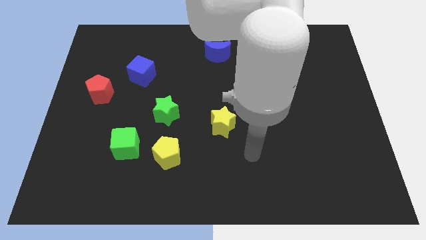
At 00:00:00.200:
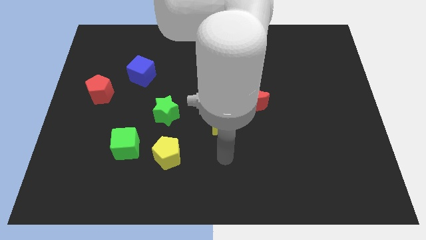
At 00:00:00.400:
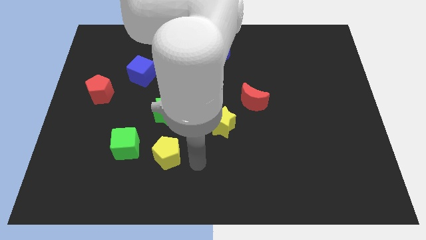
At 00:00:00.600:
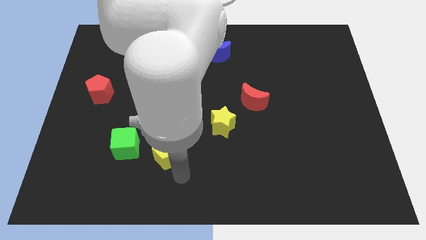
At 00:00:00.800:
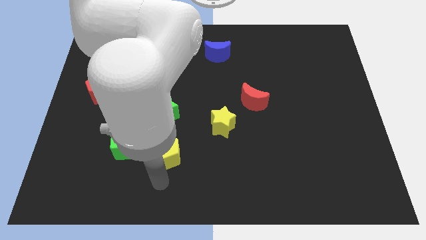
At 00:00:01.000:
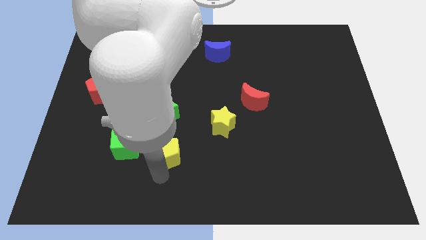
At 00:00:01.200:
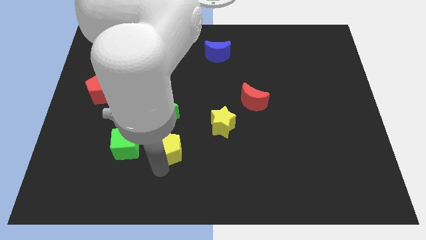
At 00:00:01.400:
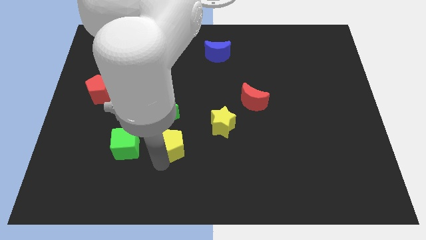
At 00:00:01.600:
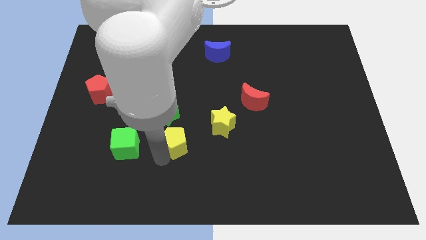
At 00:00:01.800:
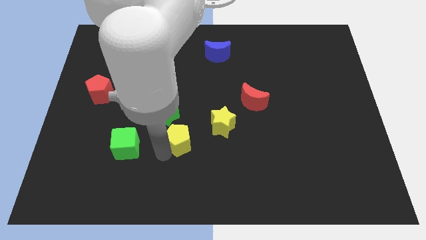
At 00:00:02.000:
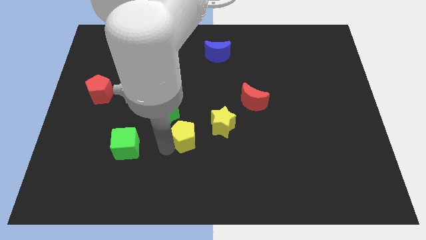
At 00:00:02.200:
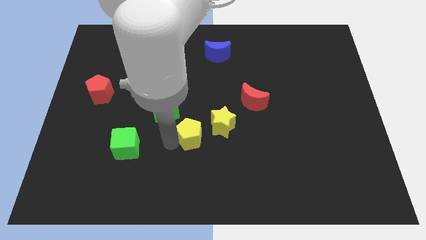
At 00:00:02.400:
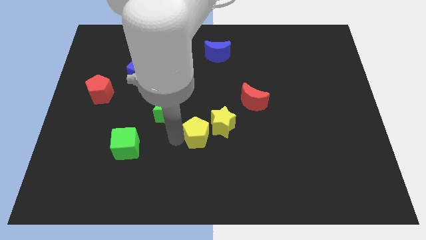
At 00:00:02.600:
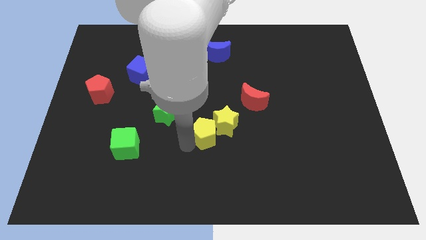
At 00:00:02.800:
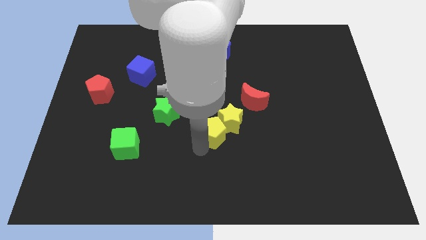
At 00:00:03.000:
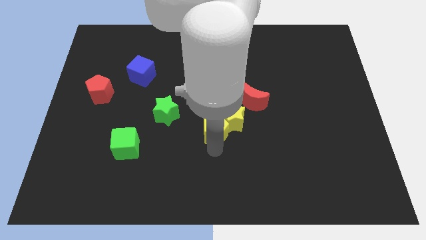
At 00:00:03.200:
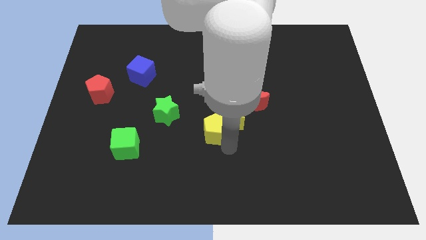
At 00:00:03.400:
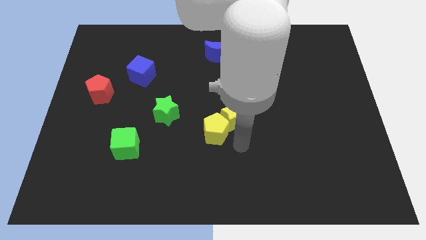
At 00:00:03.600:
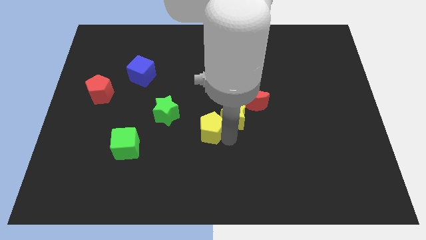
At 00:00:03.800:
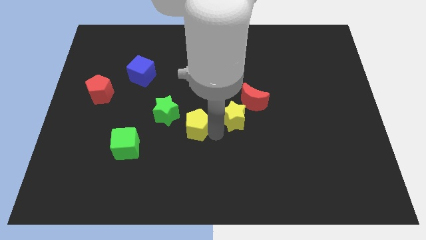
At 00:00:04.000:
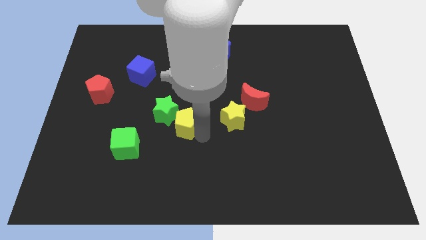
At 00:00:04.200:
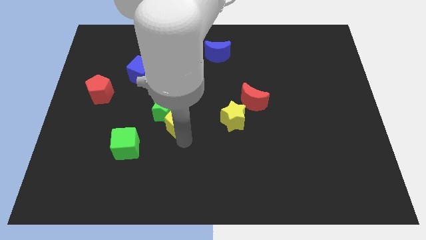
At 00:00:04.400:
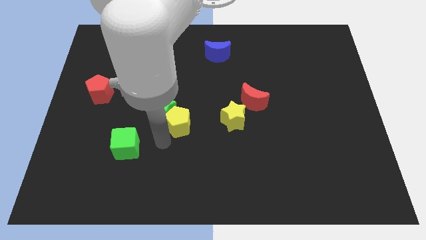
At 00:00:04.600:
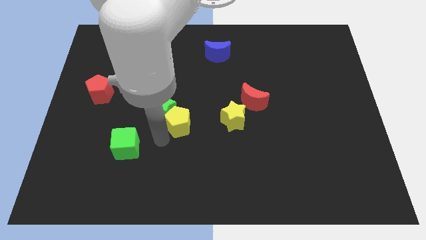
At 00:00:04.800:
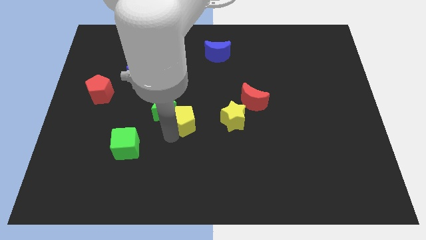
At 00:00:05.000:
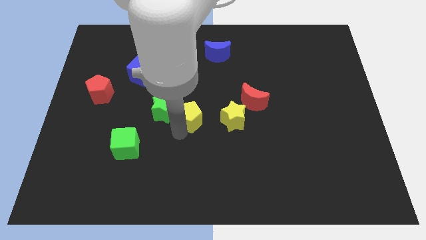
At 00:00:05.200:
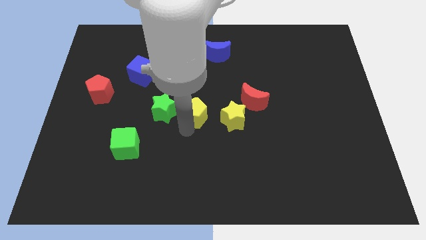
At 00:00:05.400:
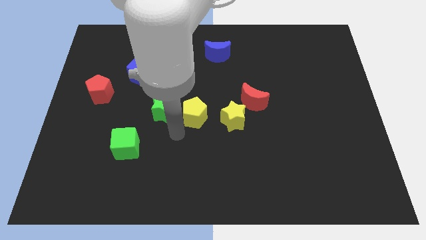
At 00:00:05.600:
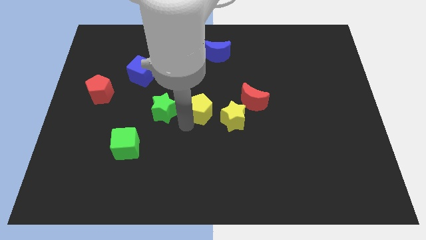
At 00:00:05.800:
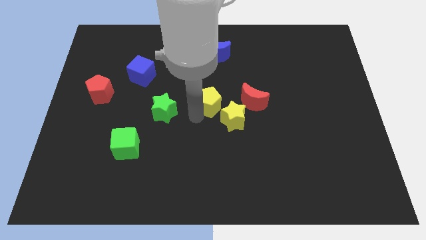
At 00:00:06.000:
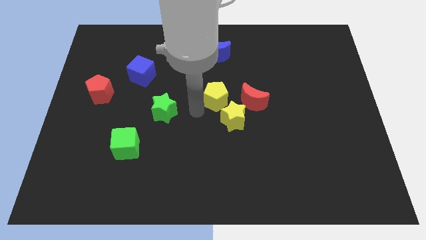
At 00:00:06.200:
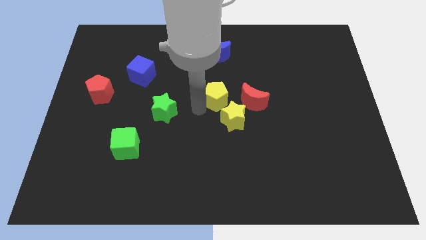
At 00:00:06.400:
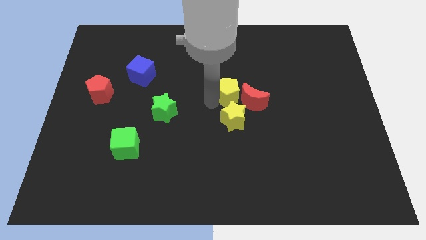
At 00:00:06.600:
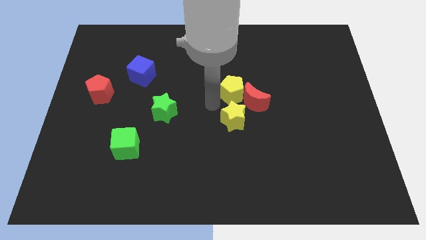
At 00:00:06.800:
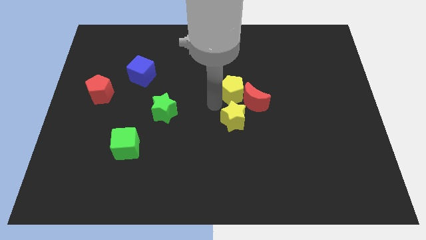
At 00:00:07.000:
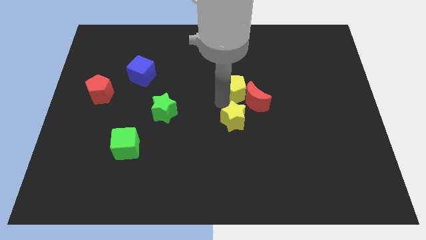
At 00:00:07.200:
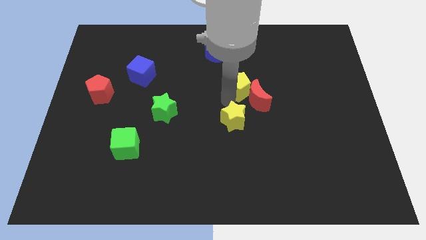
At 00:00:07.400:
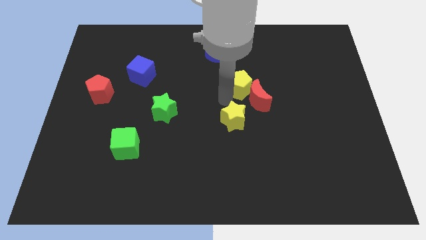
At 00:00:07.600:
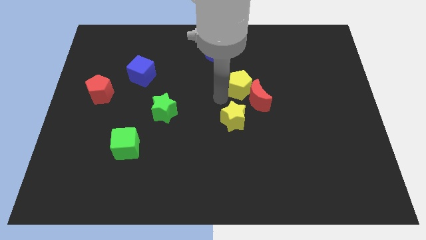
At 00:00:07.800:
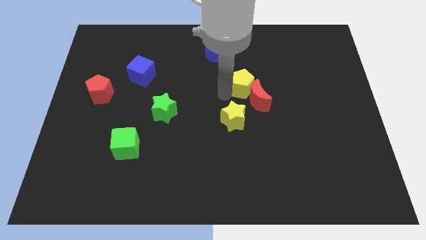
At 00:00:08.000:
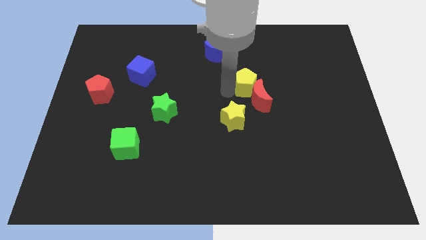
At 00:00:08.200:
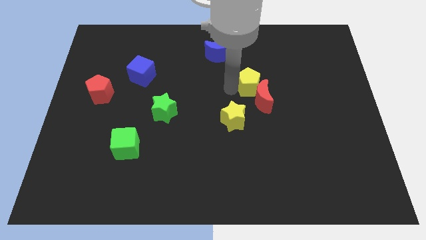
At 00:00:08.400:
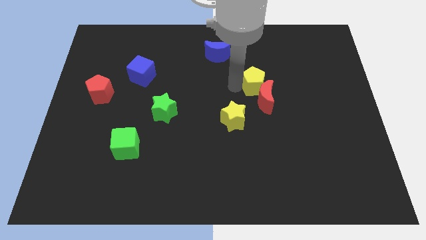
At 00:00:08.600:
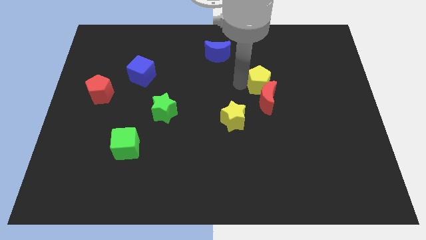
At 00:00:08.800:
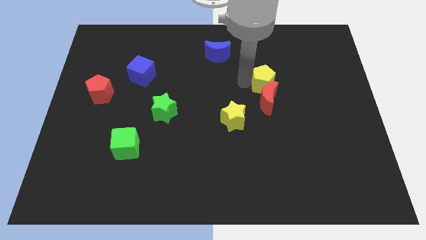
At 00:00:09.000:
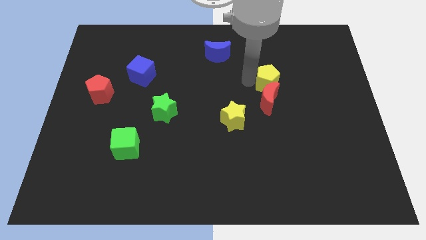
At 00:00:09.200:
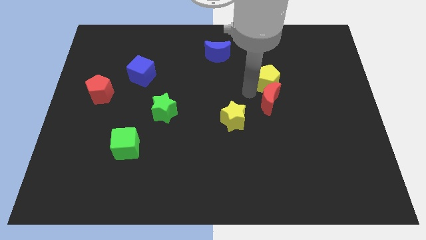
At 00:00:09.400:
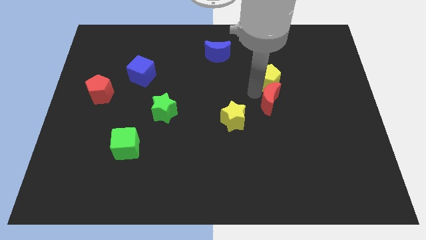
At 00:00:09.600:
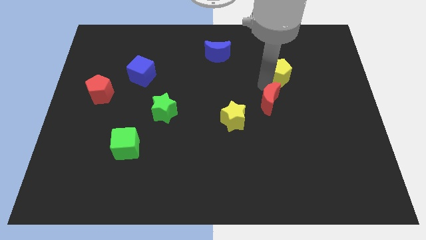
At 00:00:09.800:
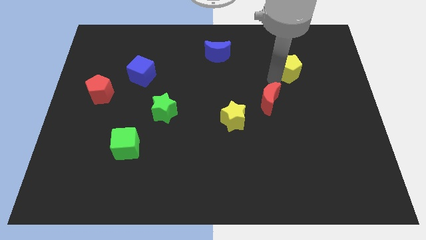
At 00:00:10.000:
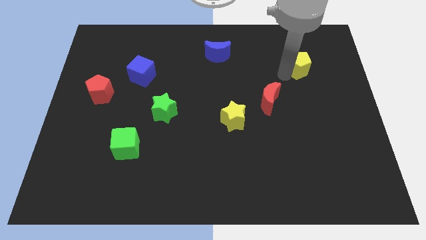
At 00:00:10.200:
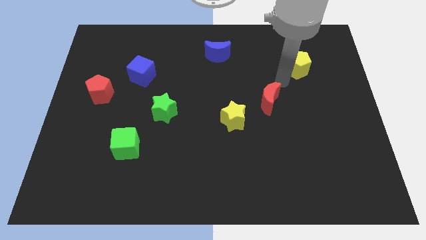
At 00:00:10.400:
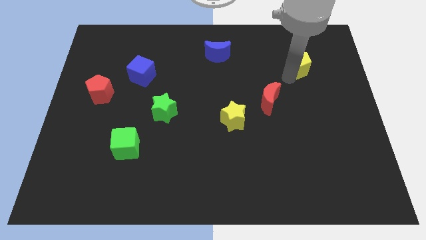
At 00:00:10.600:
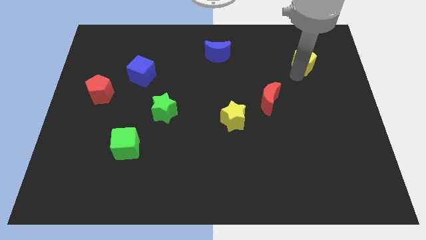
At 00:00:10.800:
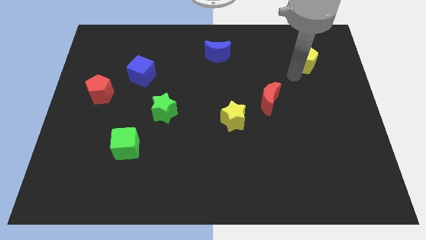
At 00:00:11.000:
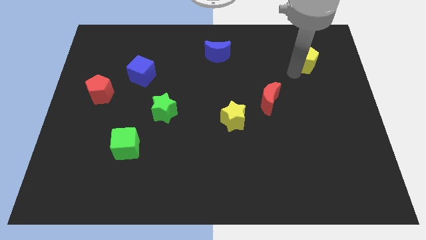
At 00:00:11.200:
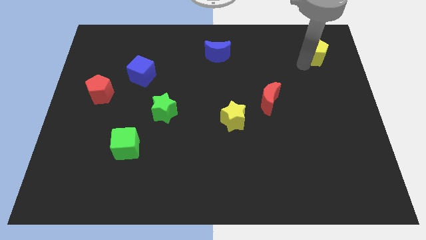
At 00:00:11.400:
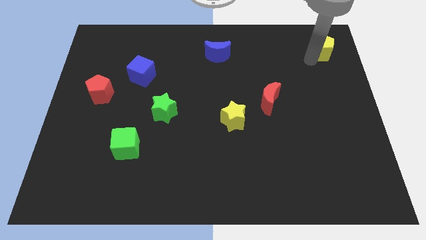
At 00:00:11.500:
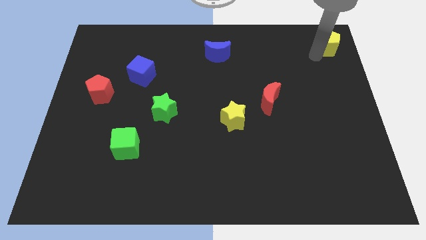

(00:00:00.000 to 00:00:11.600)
slide the yellow pentagon to the upper right corner
